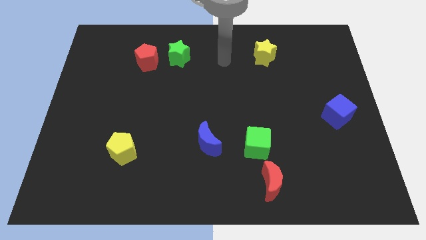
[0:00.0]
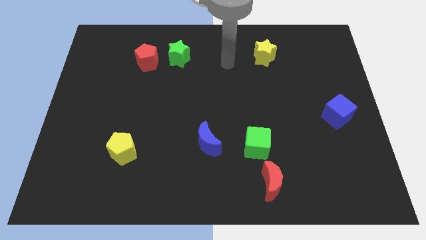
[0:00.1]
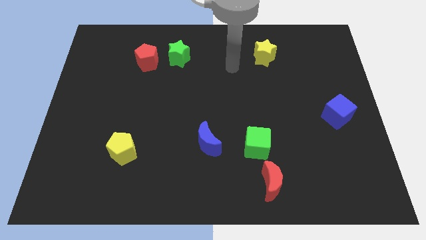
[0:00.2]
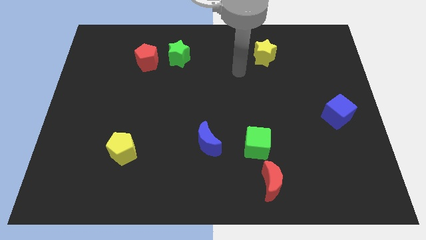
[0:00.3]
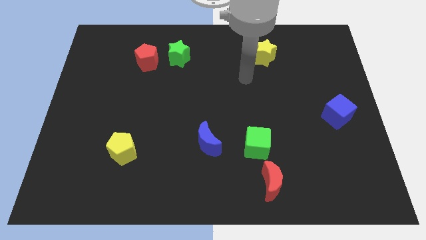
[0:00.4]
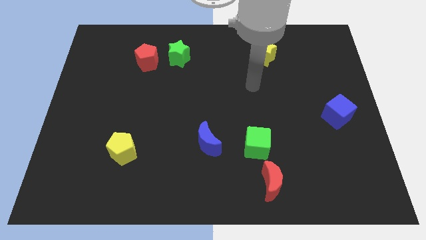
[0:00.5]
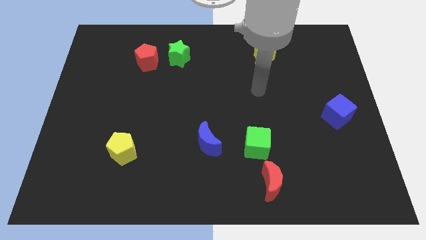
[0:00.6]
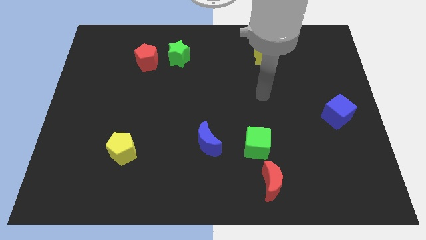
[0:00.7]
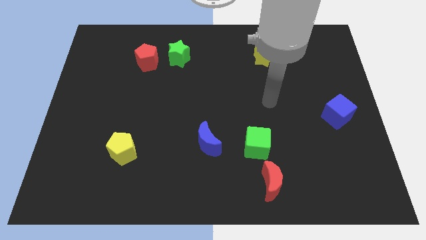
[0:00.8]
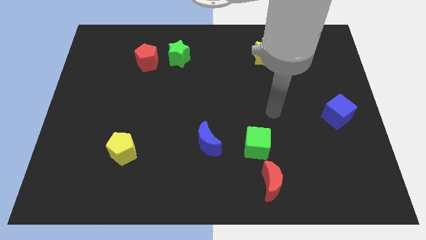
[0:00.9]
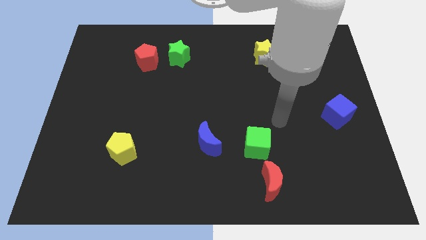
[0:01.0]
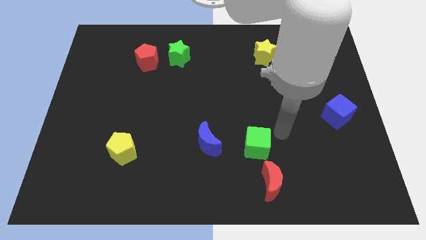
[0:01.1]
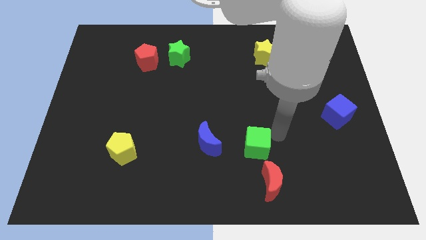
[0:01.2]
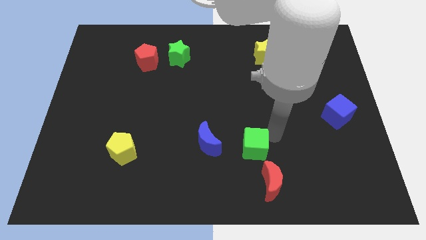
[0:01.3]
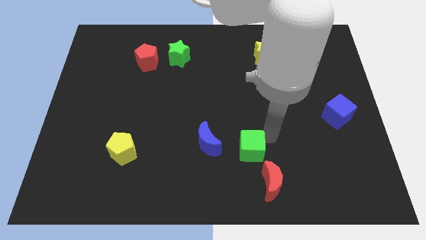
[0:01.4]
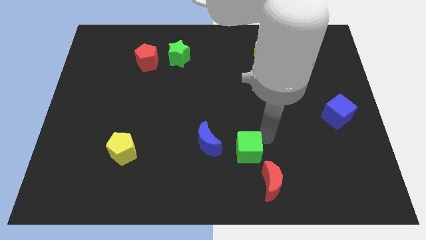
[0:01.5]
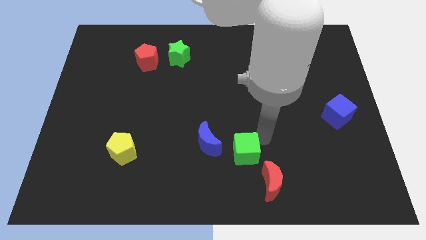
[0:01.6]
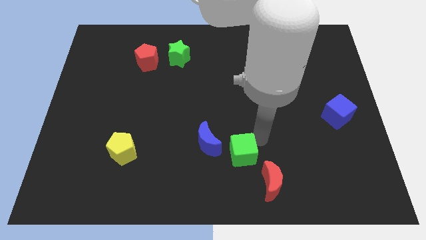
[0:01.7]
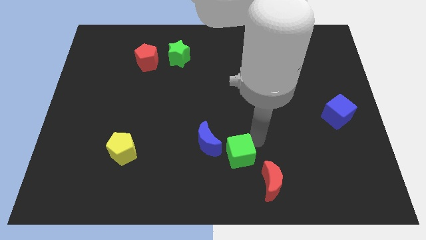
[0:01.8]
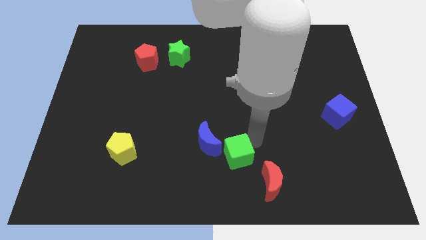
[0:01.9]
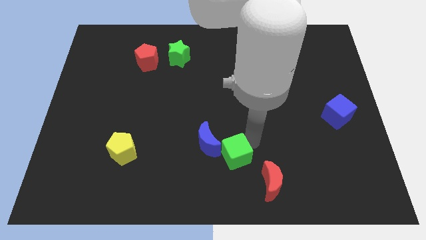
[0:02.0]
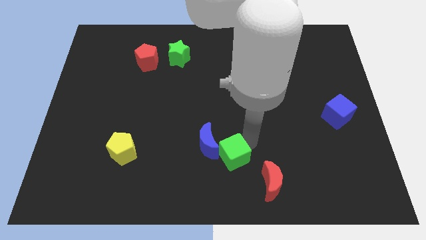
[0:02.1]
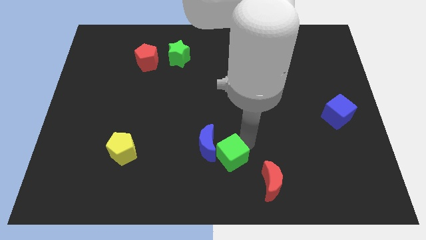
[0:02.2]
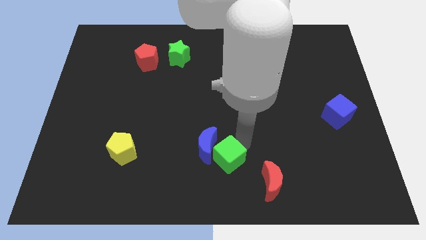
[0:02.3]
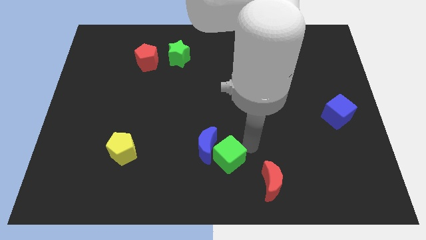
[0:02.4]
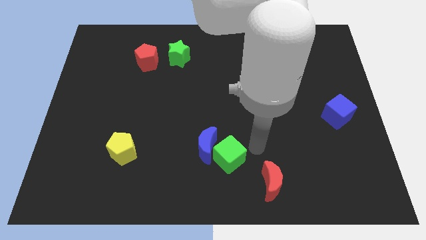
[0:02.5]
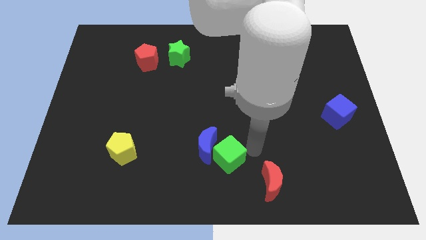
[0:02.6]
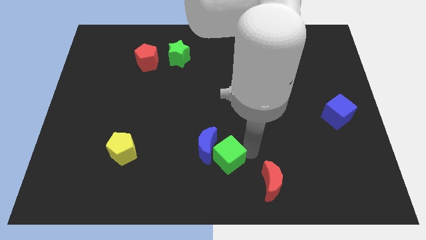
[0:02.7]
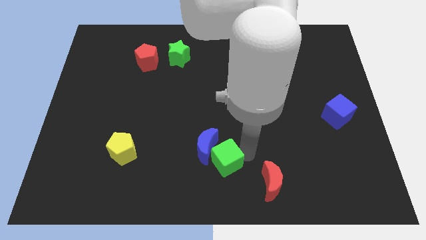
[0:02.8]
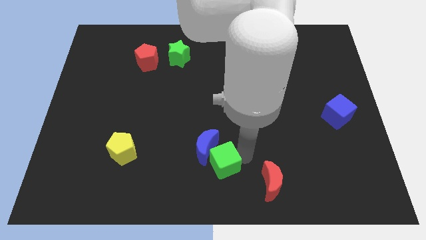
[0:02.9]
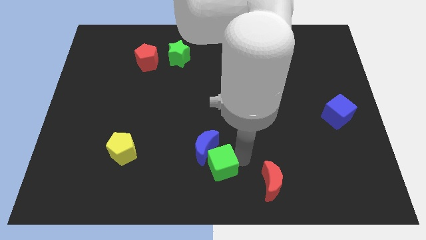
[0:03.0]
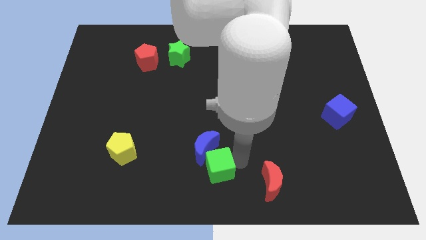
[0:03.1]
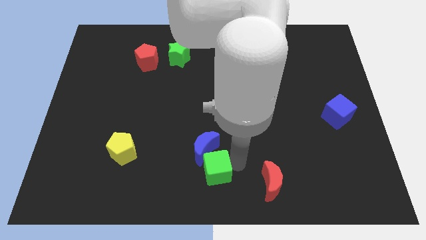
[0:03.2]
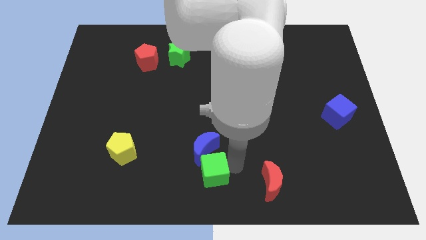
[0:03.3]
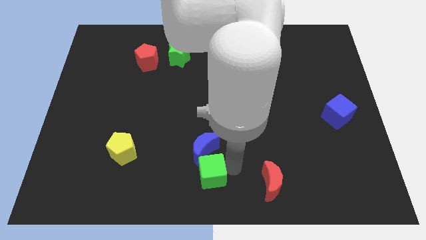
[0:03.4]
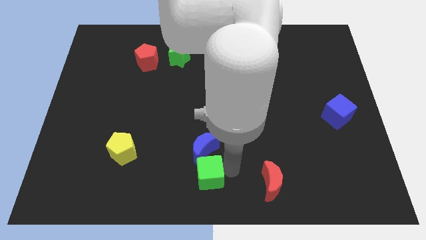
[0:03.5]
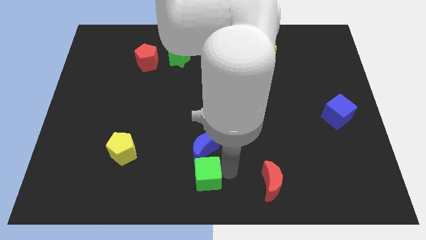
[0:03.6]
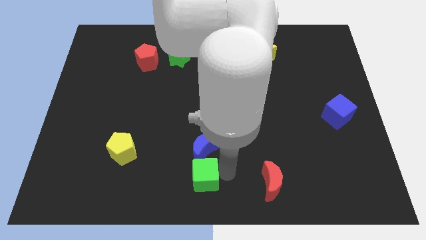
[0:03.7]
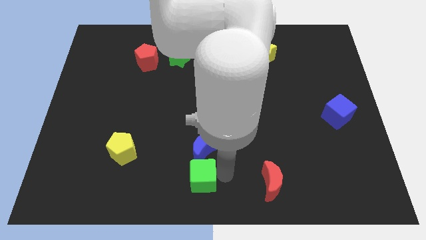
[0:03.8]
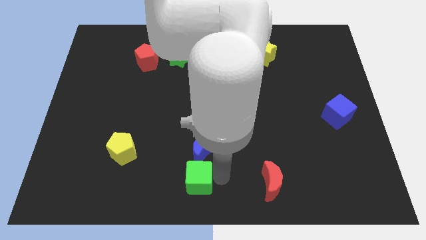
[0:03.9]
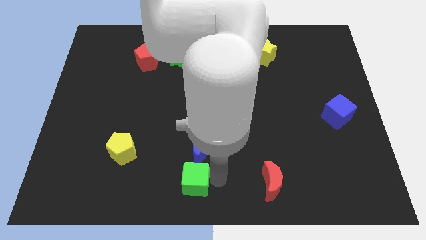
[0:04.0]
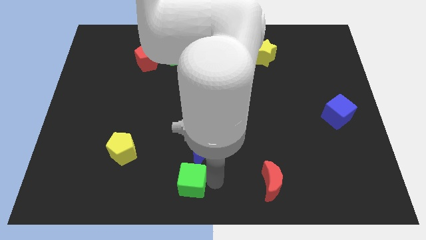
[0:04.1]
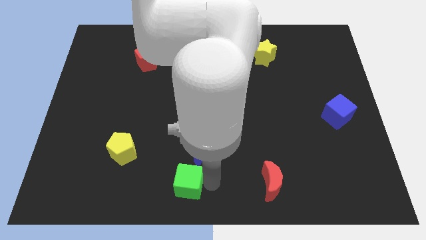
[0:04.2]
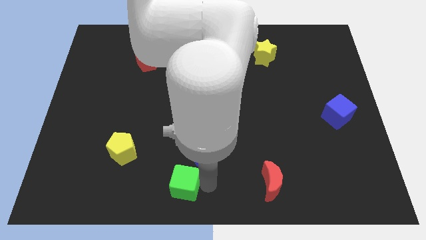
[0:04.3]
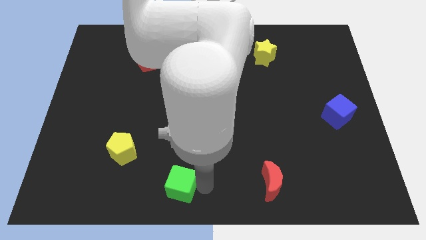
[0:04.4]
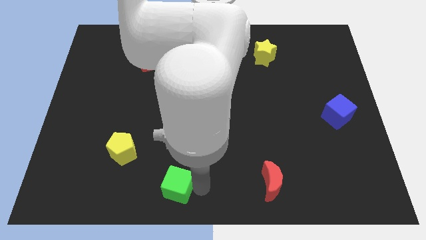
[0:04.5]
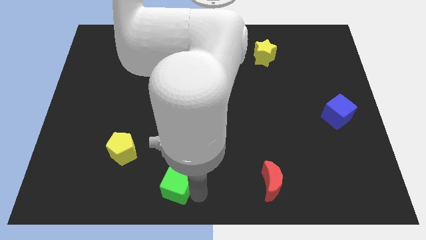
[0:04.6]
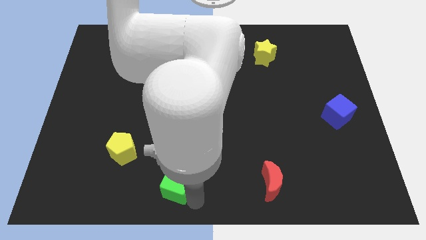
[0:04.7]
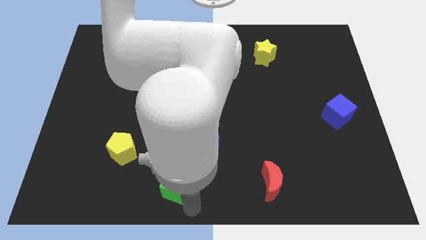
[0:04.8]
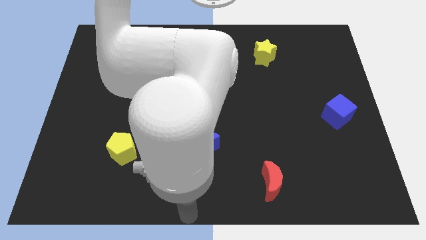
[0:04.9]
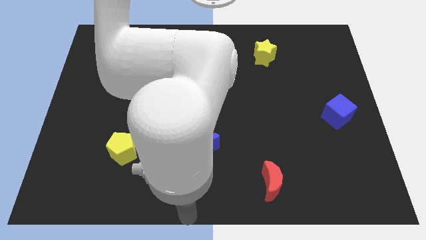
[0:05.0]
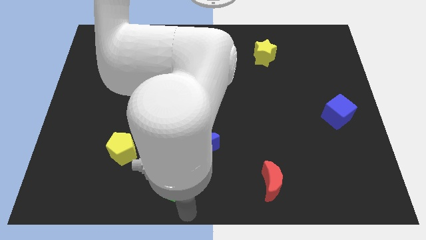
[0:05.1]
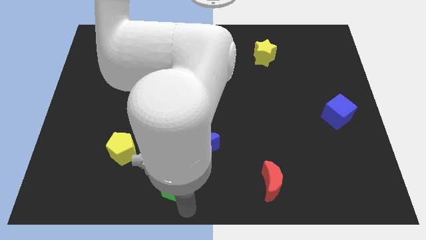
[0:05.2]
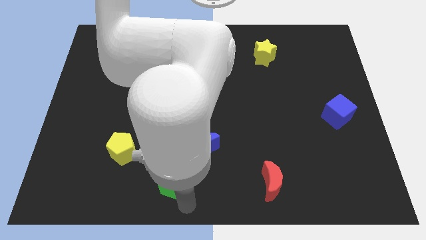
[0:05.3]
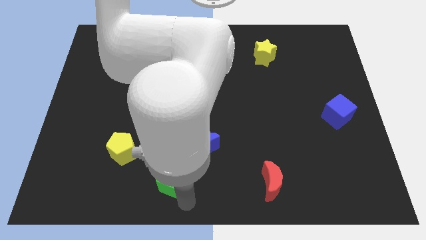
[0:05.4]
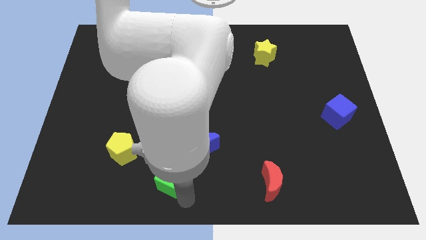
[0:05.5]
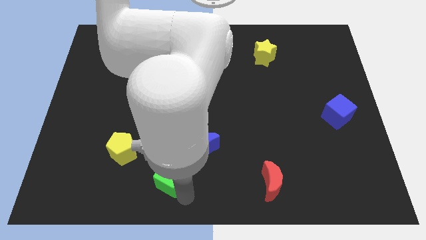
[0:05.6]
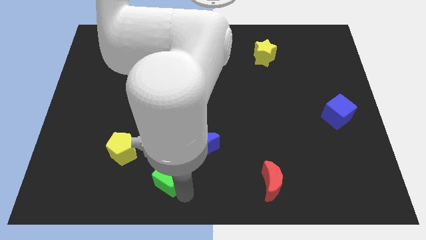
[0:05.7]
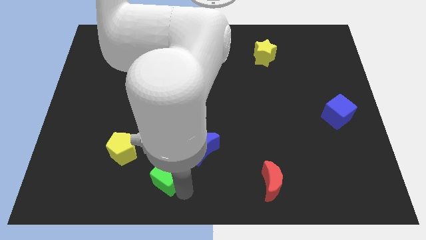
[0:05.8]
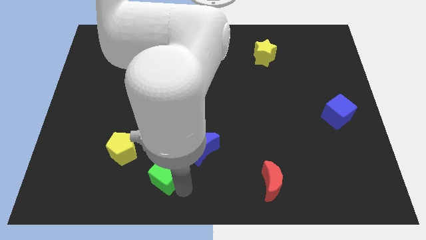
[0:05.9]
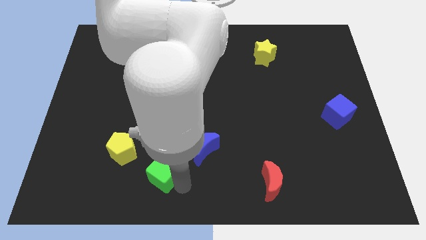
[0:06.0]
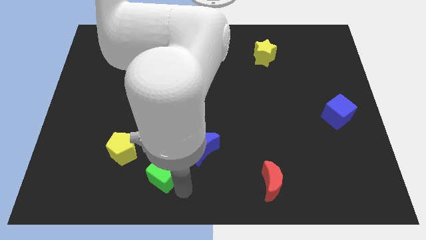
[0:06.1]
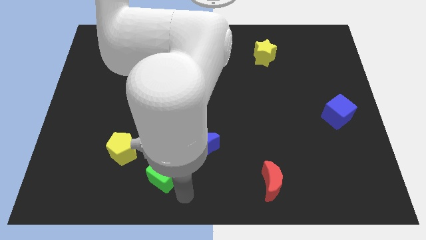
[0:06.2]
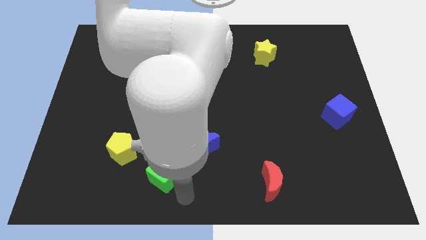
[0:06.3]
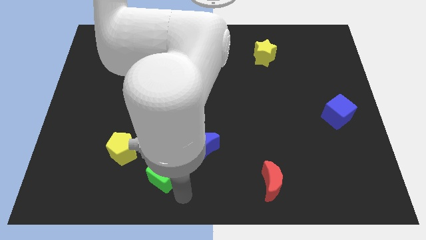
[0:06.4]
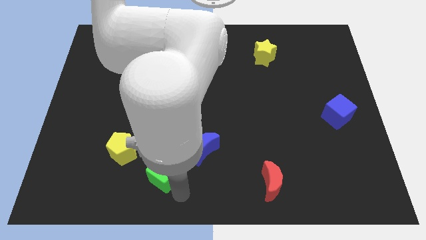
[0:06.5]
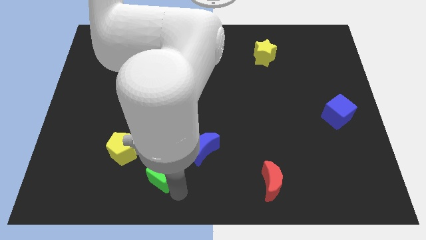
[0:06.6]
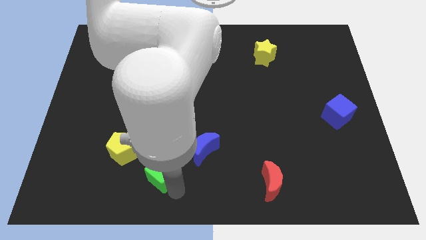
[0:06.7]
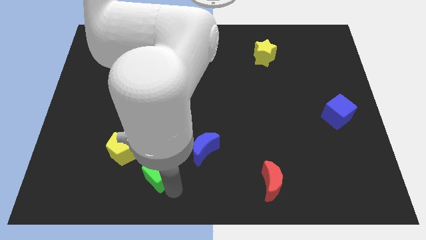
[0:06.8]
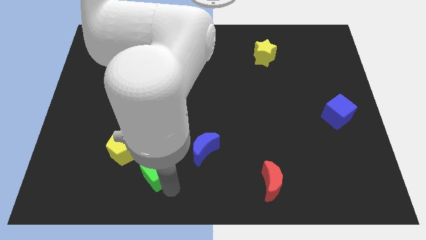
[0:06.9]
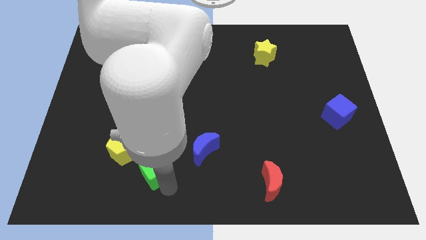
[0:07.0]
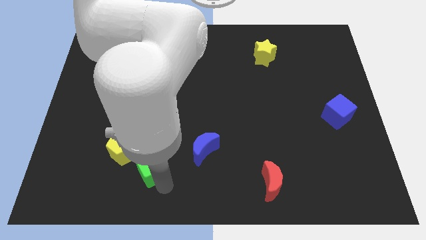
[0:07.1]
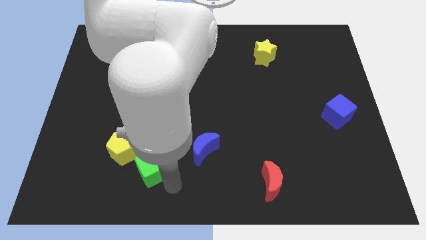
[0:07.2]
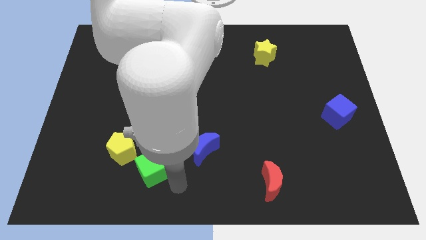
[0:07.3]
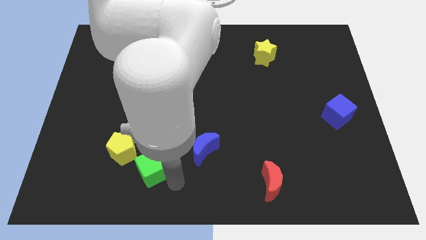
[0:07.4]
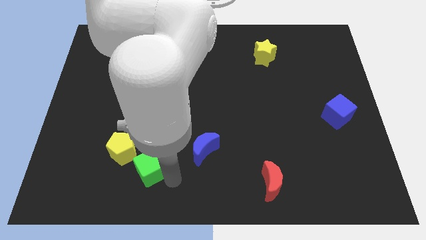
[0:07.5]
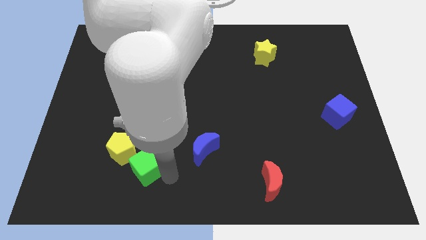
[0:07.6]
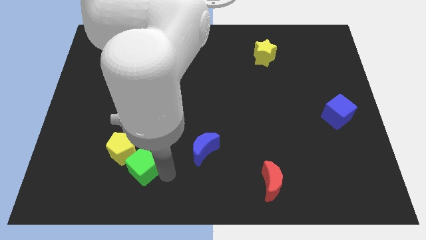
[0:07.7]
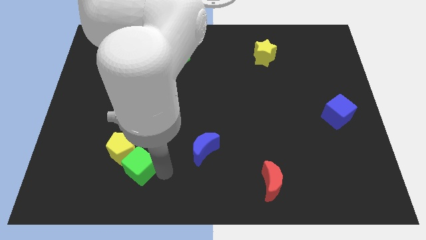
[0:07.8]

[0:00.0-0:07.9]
put the green cube close to the yellow pentagon
